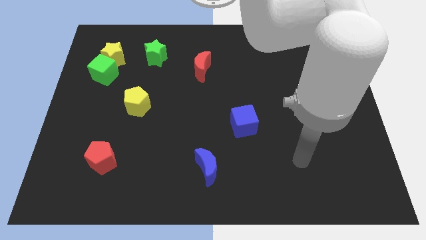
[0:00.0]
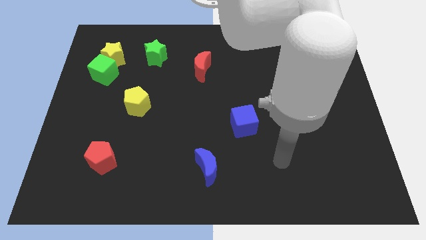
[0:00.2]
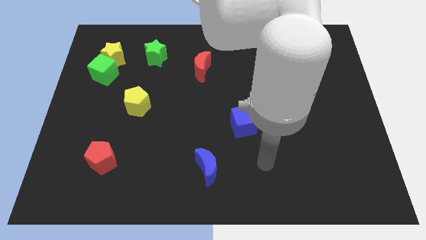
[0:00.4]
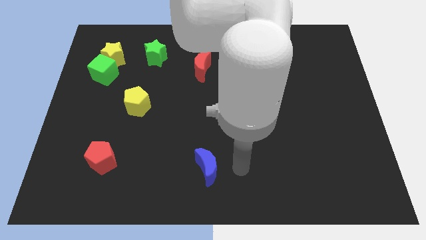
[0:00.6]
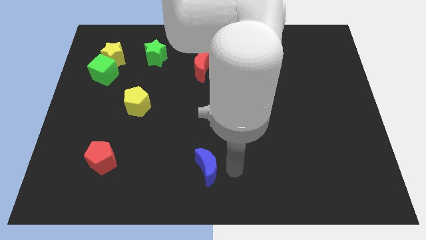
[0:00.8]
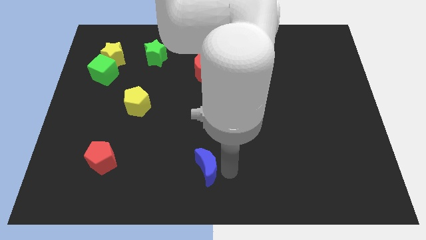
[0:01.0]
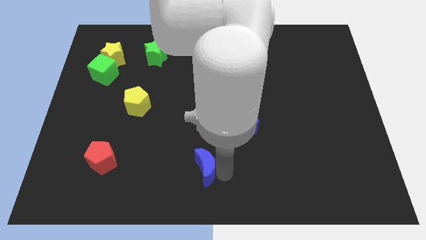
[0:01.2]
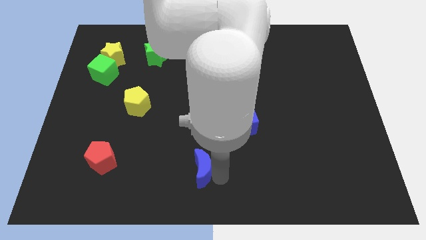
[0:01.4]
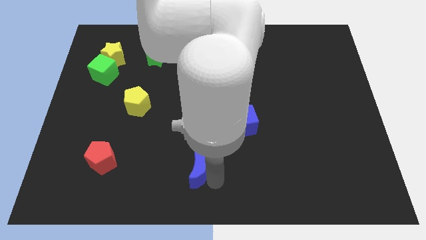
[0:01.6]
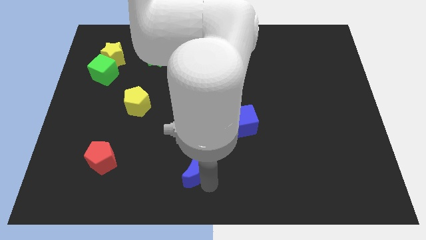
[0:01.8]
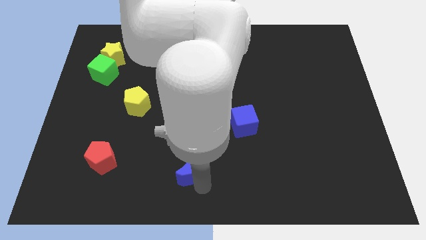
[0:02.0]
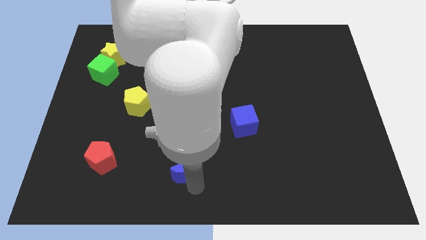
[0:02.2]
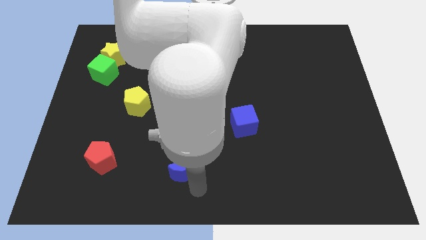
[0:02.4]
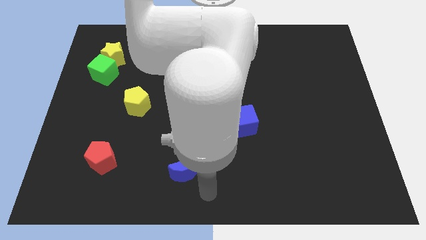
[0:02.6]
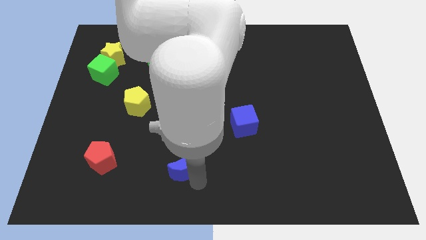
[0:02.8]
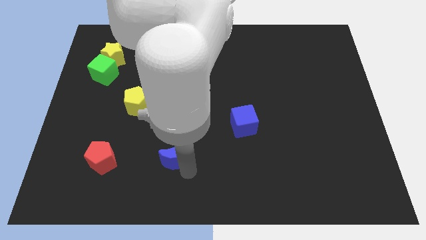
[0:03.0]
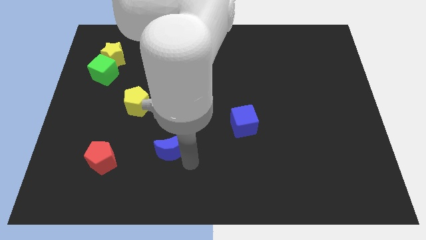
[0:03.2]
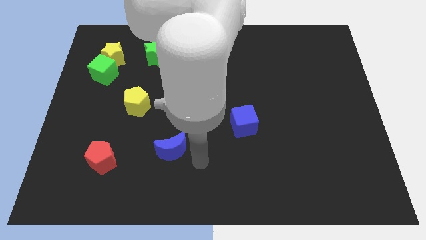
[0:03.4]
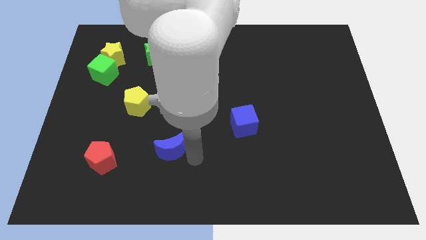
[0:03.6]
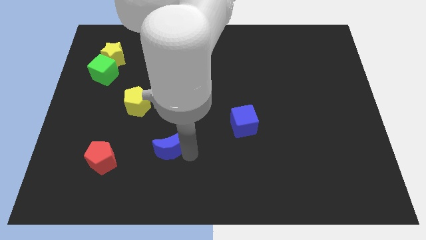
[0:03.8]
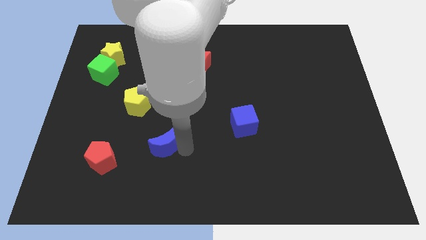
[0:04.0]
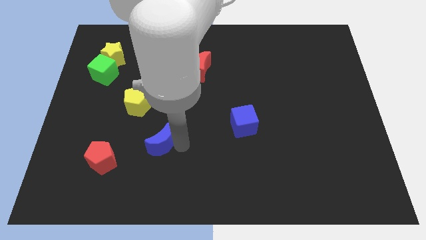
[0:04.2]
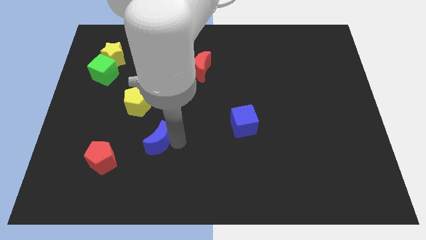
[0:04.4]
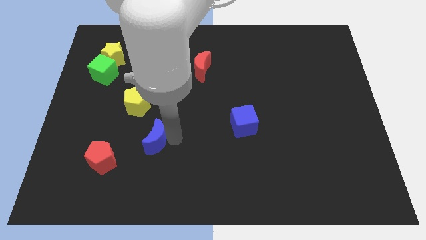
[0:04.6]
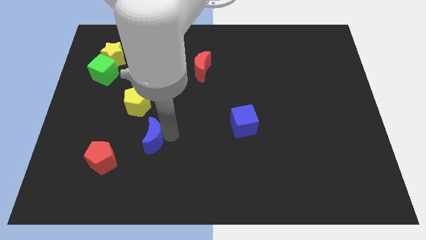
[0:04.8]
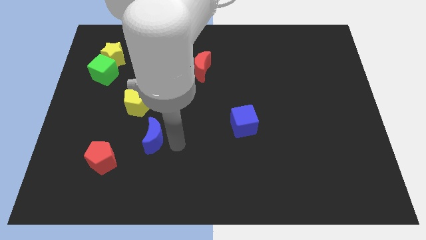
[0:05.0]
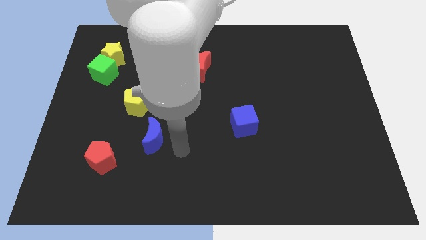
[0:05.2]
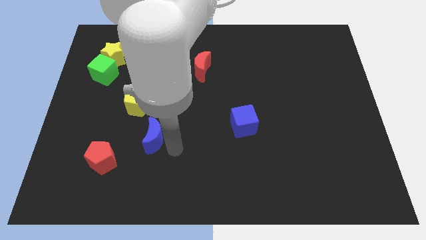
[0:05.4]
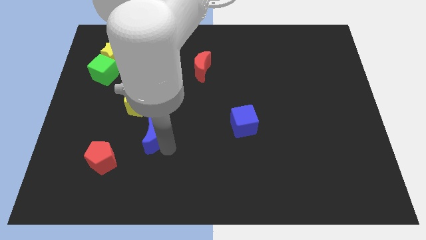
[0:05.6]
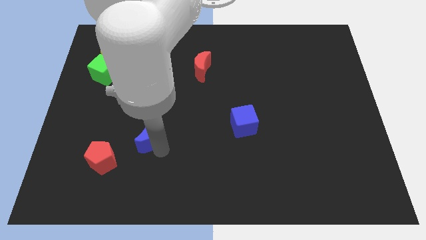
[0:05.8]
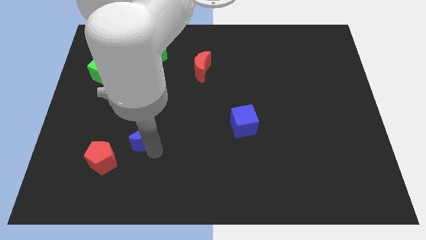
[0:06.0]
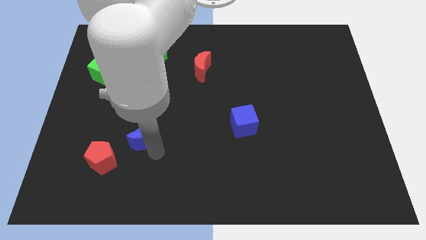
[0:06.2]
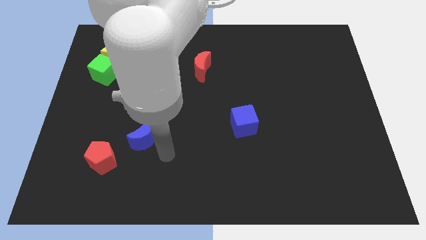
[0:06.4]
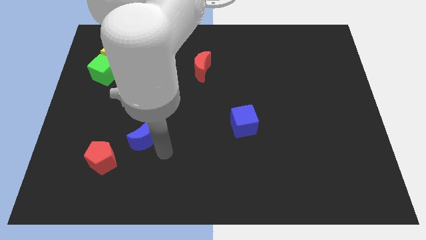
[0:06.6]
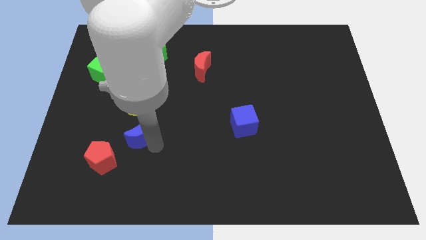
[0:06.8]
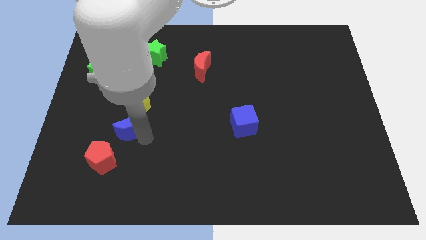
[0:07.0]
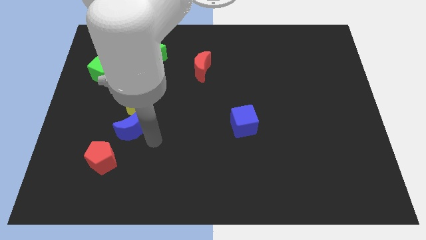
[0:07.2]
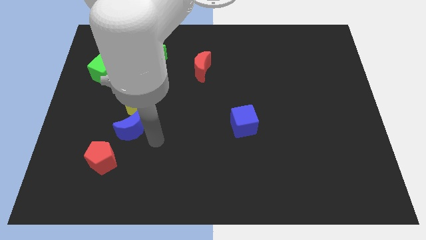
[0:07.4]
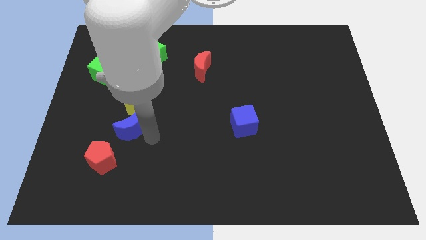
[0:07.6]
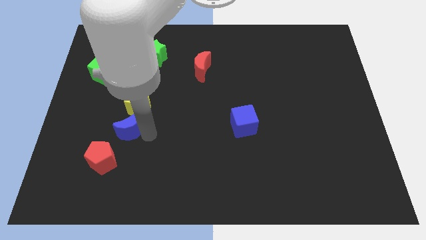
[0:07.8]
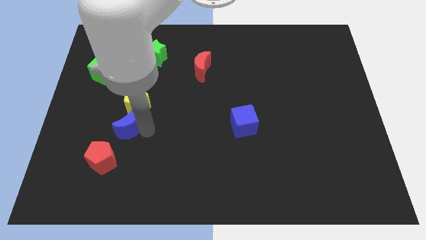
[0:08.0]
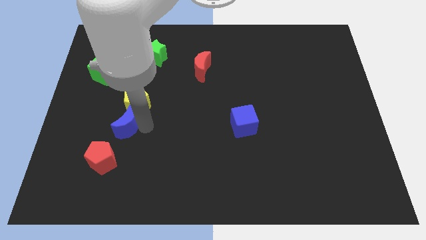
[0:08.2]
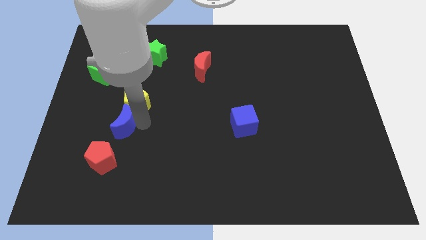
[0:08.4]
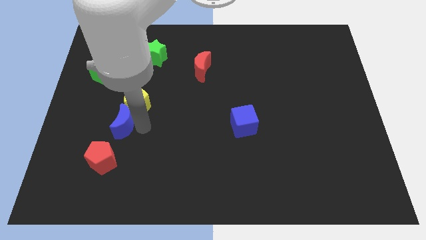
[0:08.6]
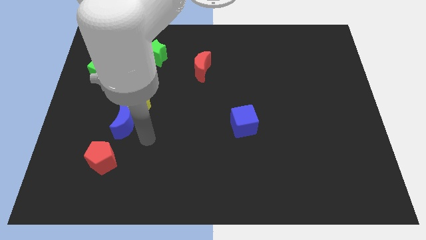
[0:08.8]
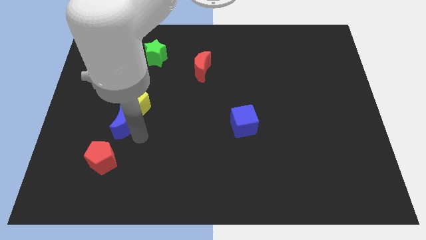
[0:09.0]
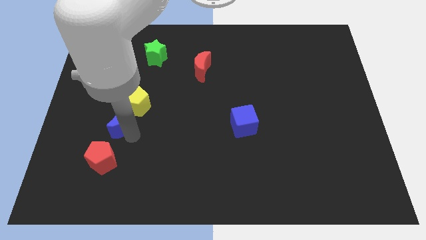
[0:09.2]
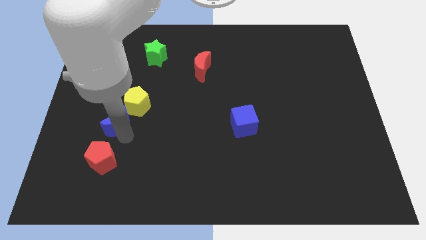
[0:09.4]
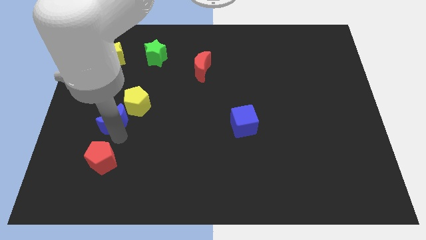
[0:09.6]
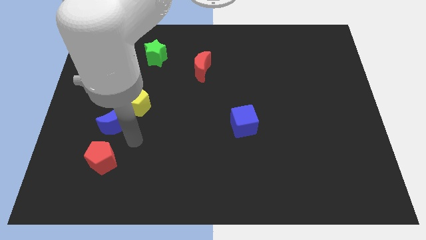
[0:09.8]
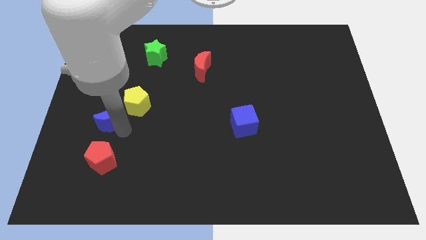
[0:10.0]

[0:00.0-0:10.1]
slide the blue moon just left of the yellow pentagon

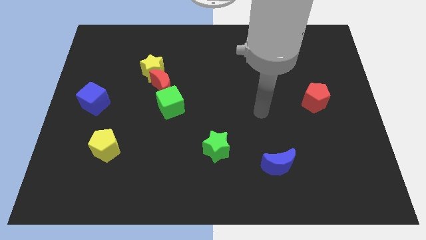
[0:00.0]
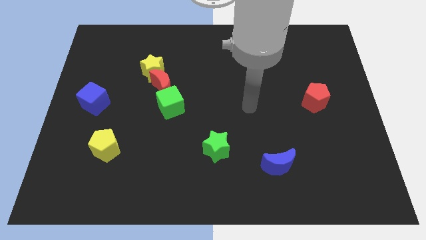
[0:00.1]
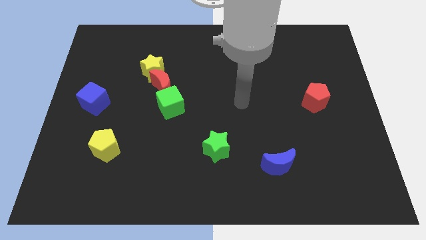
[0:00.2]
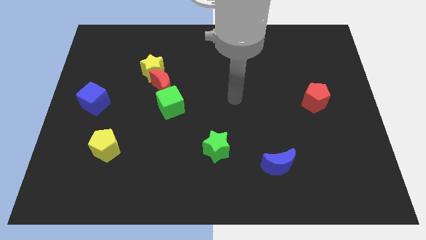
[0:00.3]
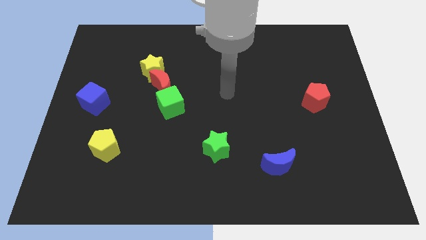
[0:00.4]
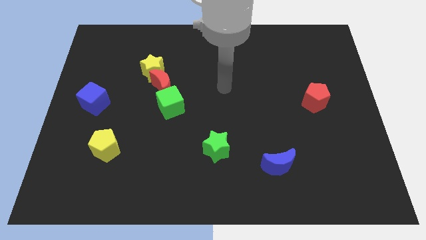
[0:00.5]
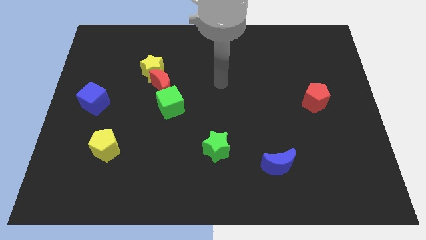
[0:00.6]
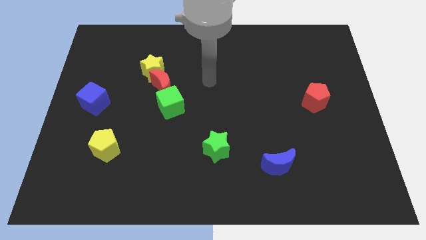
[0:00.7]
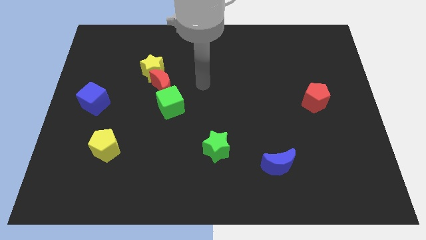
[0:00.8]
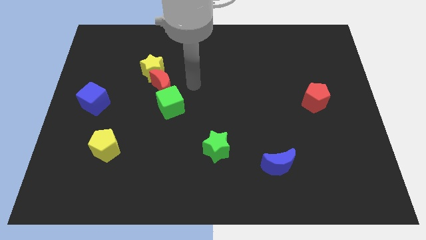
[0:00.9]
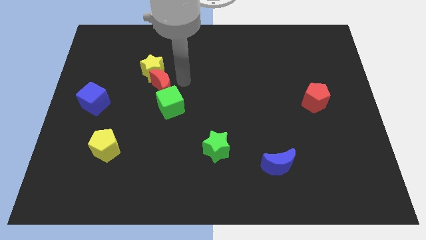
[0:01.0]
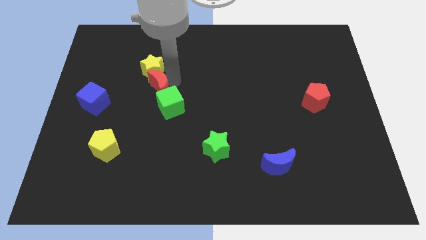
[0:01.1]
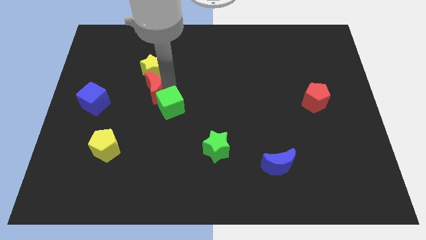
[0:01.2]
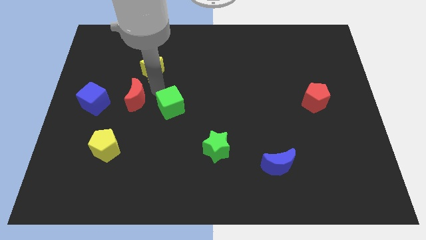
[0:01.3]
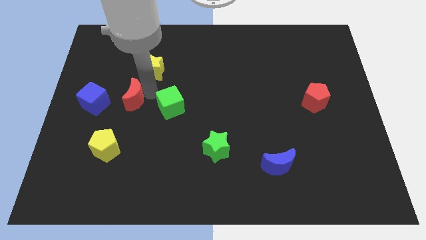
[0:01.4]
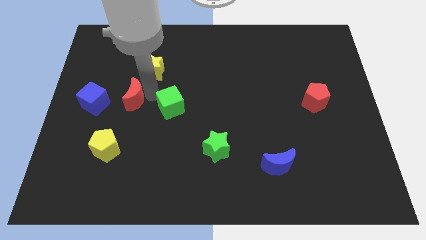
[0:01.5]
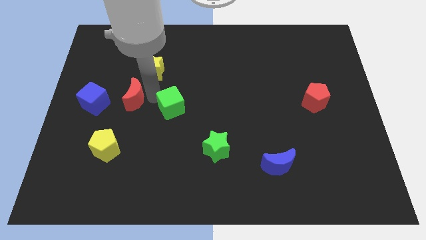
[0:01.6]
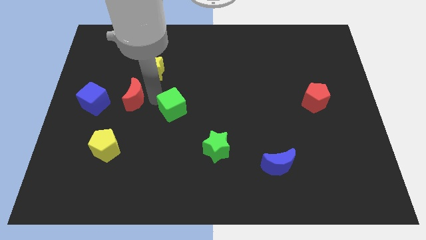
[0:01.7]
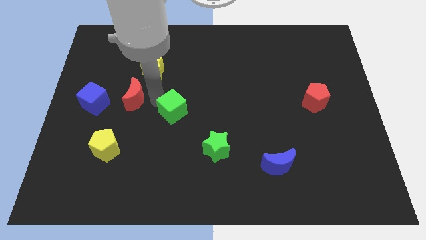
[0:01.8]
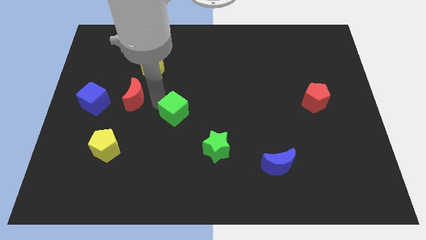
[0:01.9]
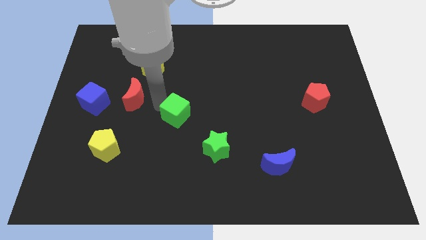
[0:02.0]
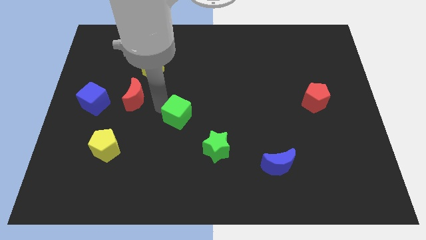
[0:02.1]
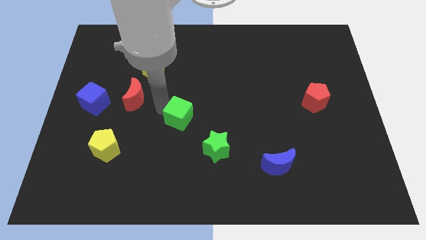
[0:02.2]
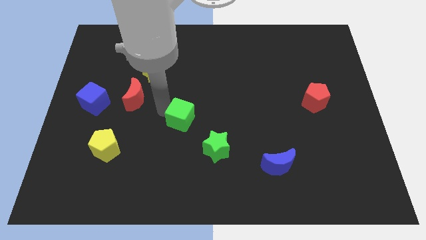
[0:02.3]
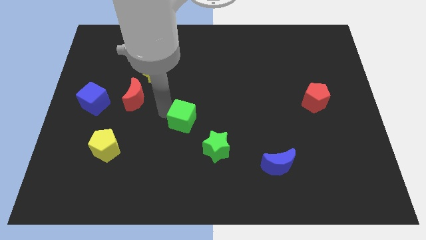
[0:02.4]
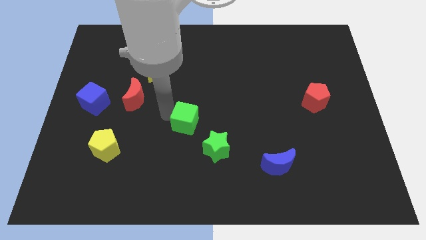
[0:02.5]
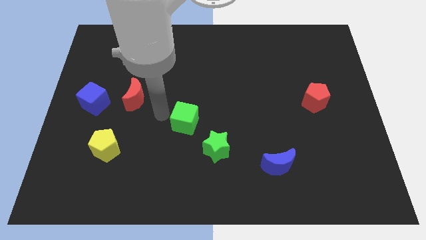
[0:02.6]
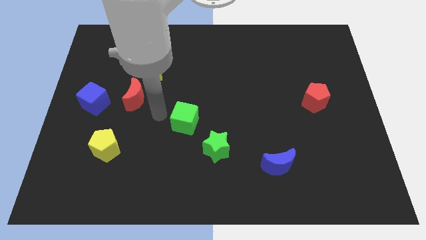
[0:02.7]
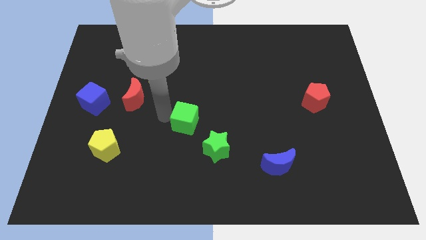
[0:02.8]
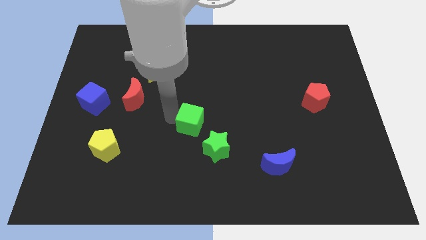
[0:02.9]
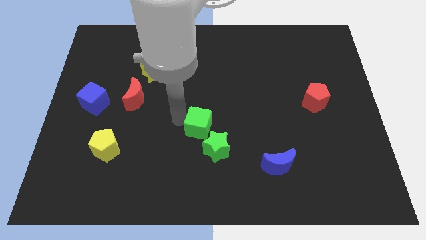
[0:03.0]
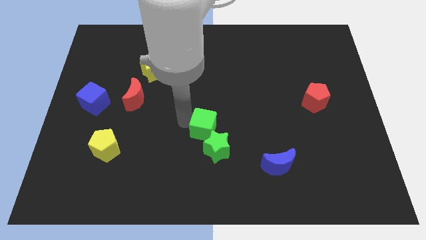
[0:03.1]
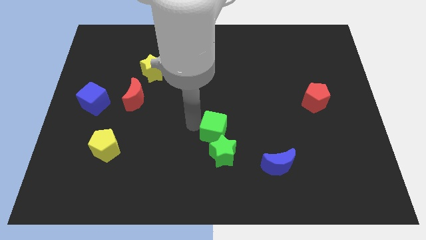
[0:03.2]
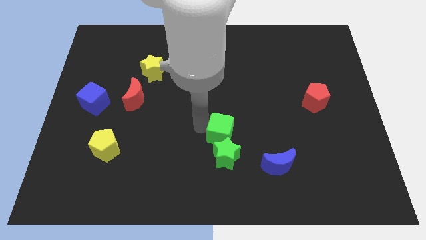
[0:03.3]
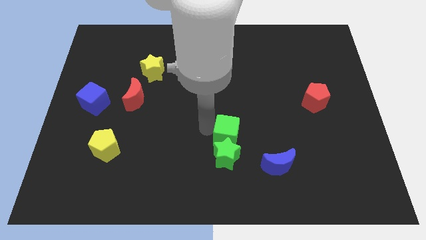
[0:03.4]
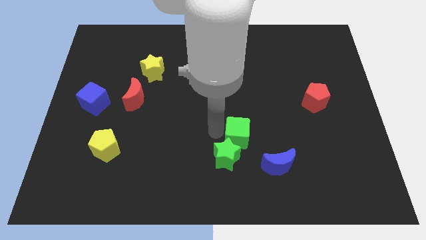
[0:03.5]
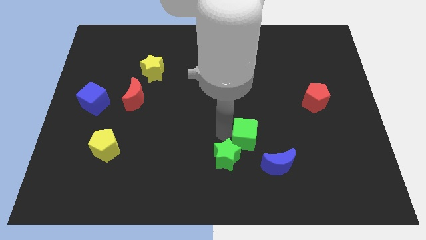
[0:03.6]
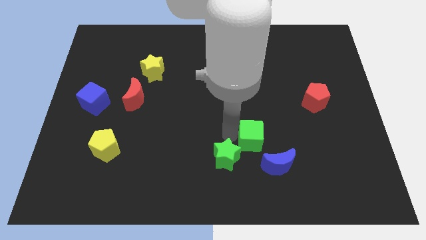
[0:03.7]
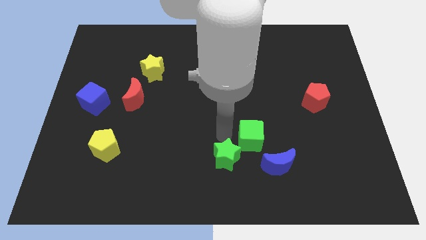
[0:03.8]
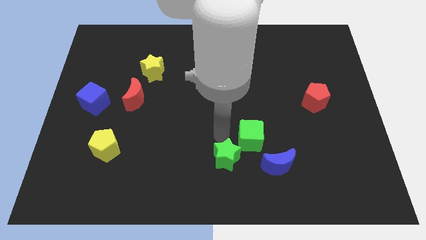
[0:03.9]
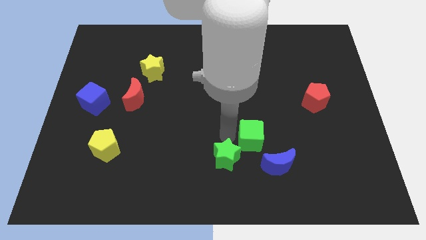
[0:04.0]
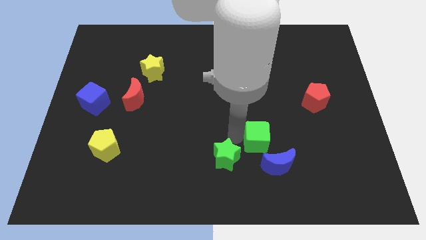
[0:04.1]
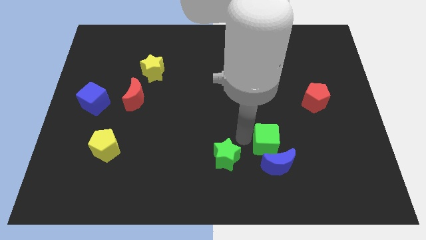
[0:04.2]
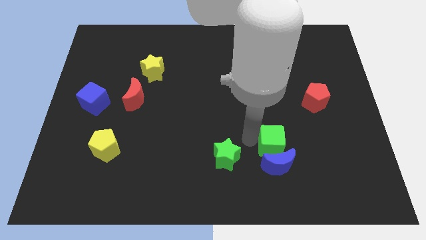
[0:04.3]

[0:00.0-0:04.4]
move the green cube to the top right of the blue moon
